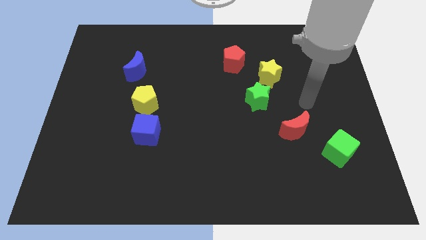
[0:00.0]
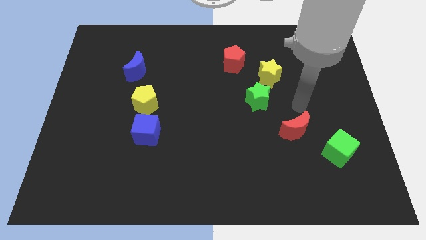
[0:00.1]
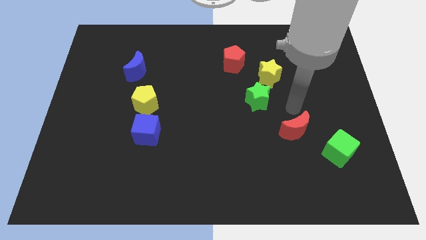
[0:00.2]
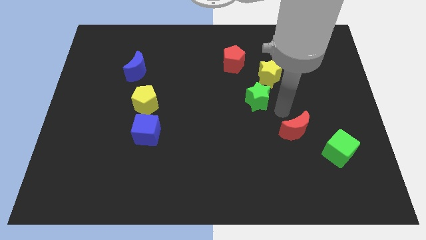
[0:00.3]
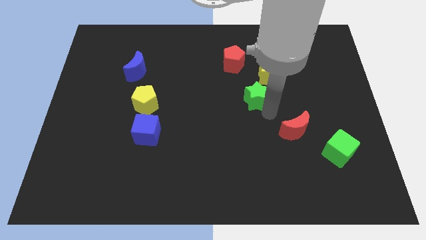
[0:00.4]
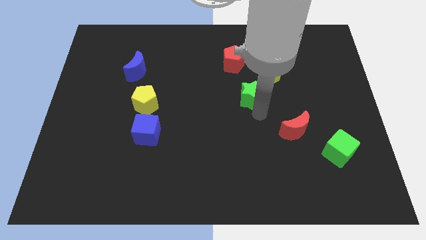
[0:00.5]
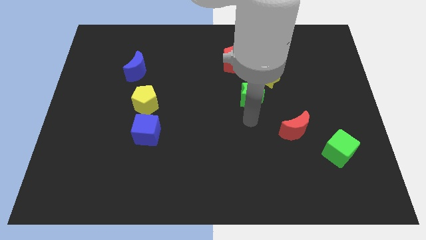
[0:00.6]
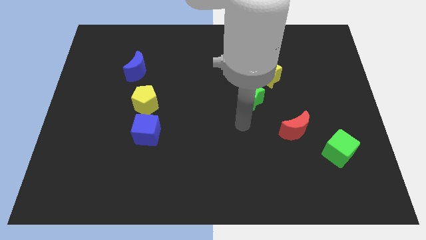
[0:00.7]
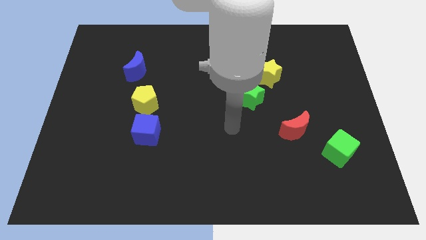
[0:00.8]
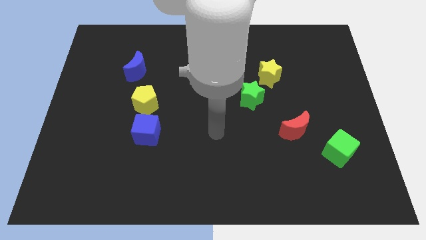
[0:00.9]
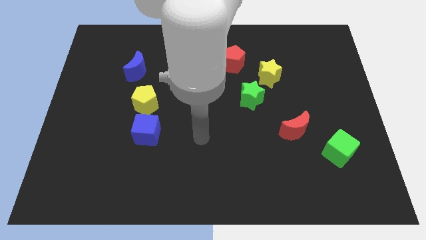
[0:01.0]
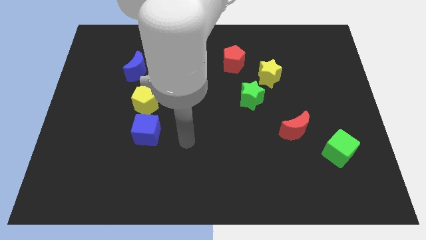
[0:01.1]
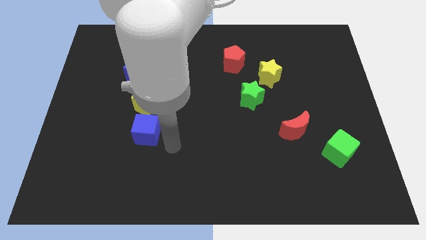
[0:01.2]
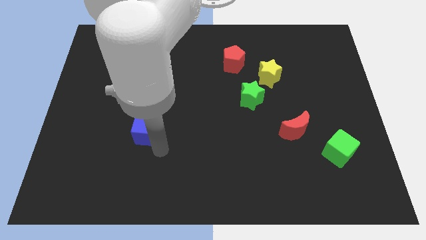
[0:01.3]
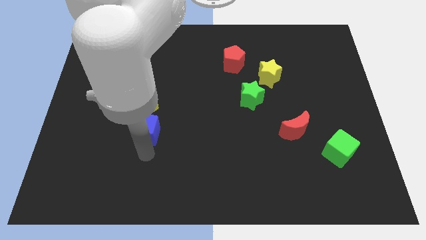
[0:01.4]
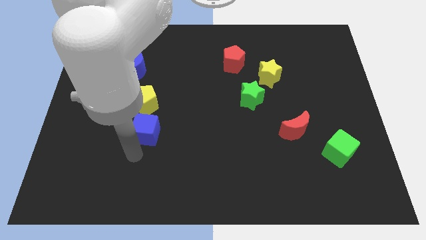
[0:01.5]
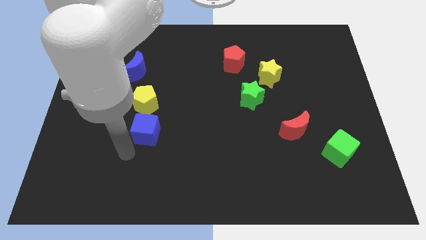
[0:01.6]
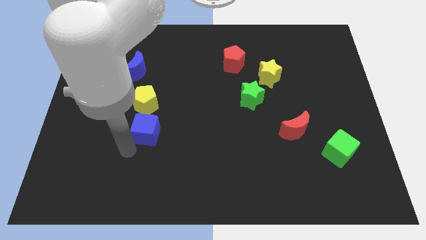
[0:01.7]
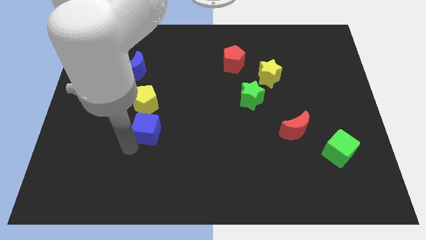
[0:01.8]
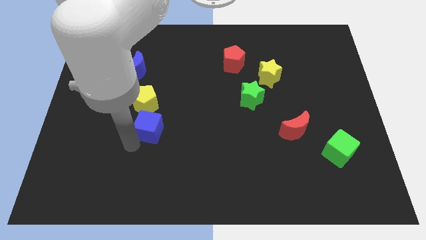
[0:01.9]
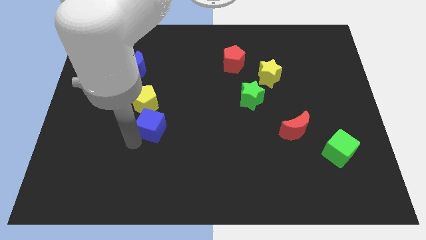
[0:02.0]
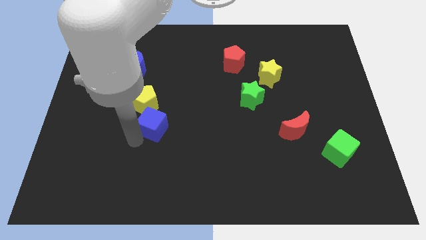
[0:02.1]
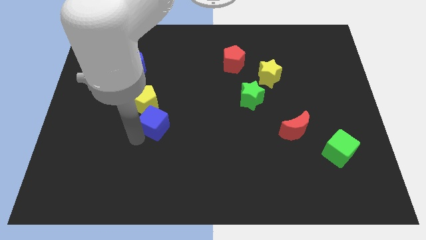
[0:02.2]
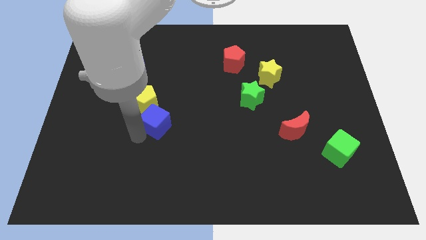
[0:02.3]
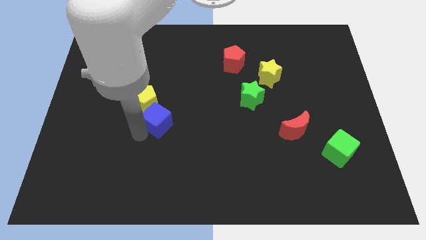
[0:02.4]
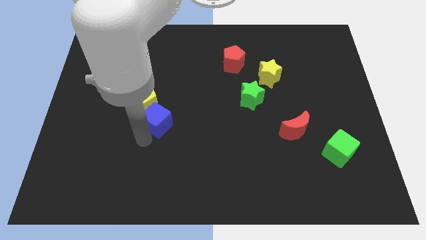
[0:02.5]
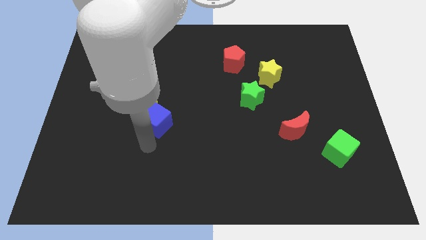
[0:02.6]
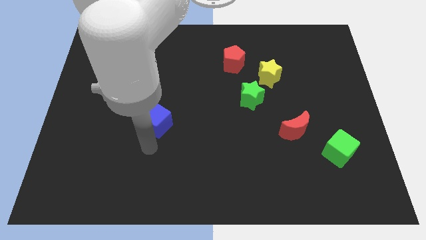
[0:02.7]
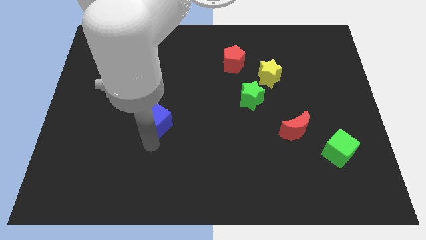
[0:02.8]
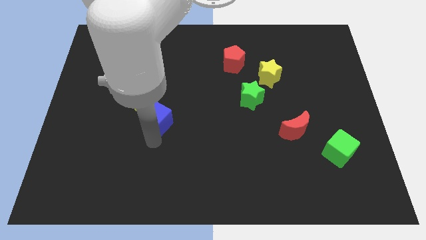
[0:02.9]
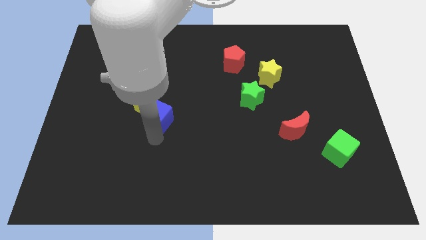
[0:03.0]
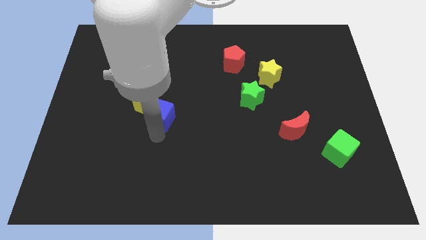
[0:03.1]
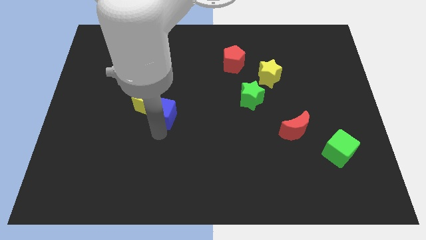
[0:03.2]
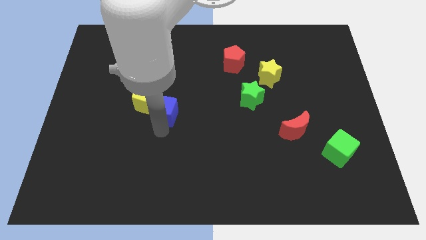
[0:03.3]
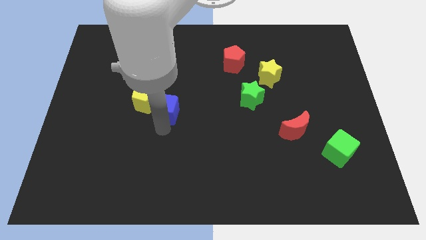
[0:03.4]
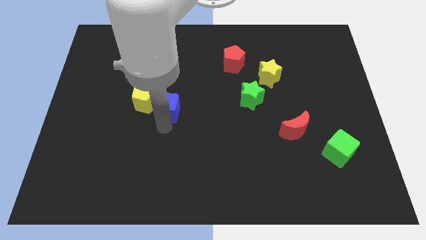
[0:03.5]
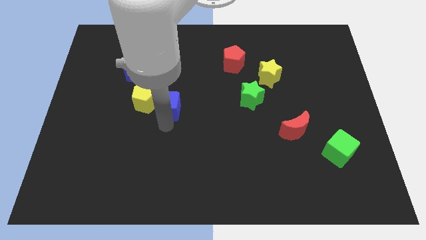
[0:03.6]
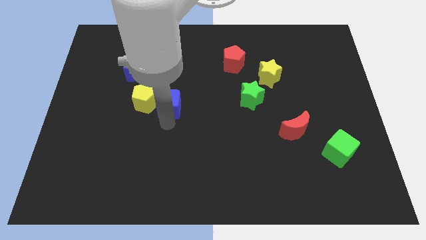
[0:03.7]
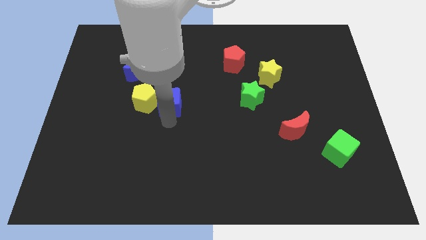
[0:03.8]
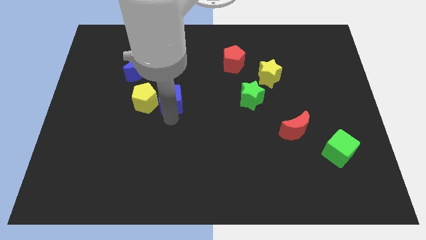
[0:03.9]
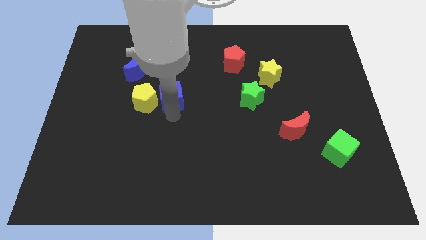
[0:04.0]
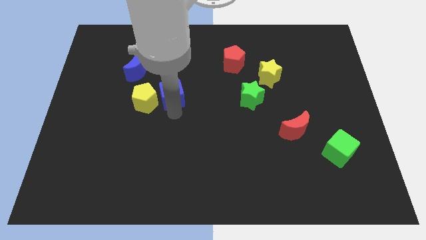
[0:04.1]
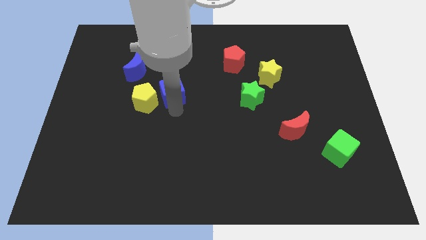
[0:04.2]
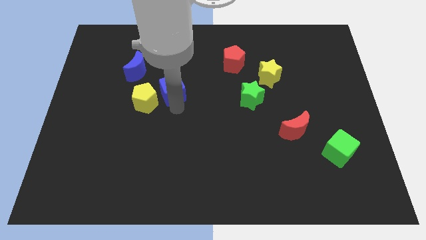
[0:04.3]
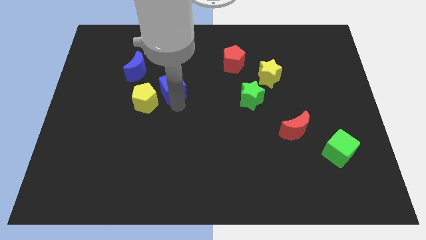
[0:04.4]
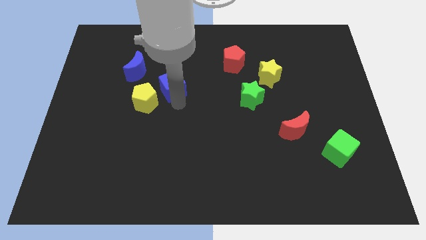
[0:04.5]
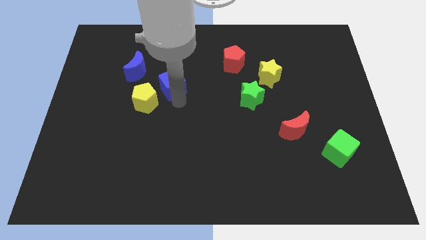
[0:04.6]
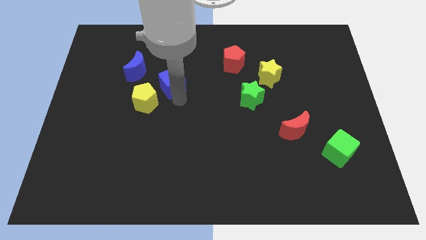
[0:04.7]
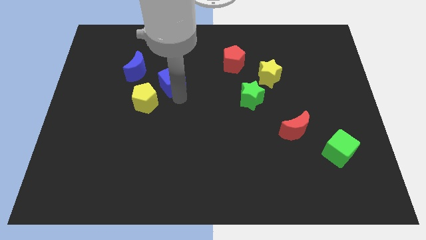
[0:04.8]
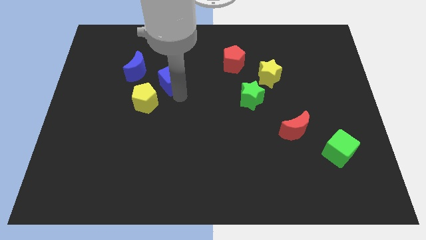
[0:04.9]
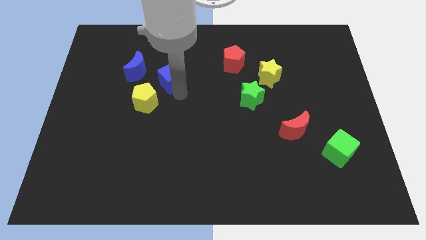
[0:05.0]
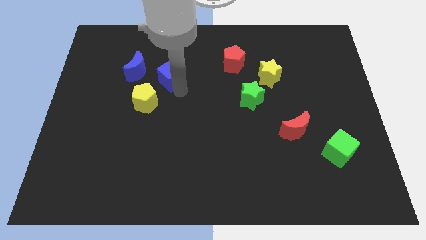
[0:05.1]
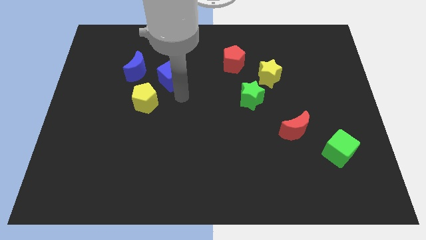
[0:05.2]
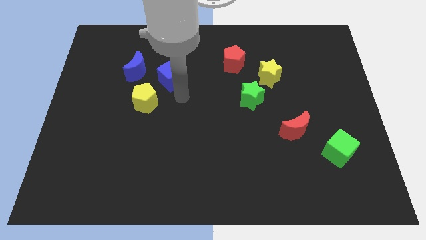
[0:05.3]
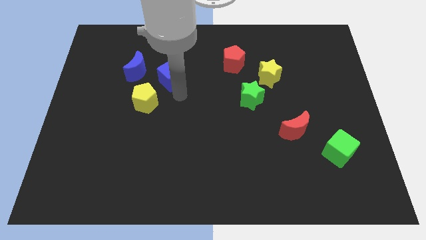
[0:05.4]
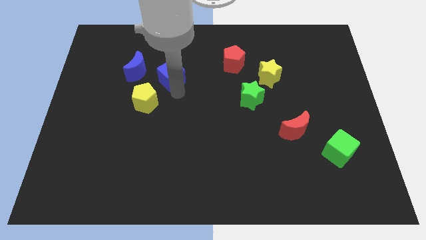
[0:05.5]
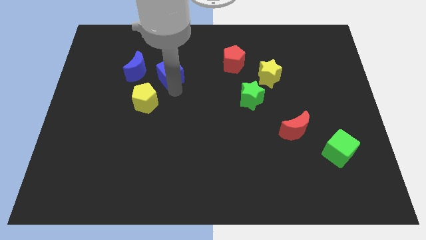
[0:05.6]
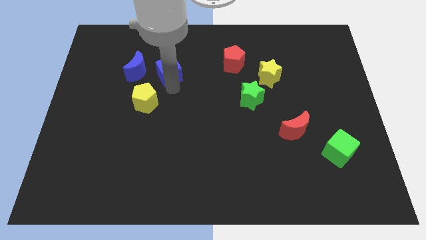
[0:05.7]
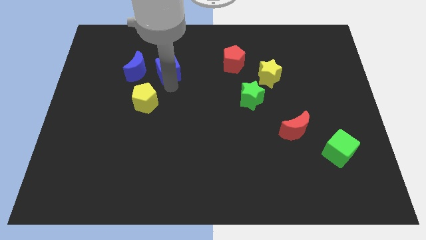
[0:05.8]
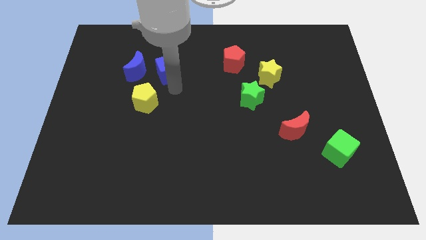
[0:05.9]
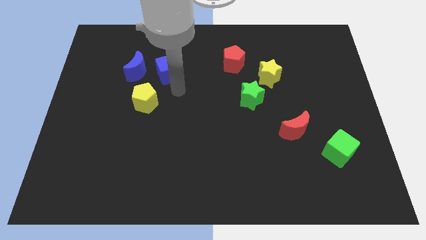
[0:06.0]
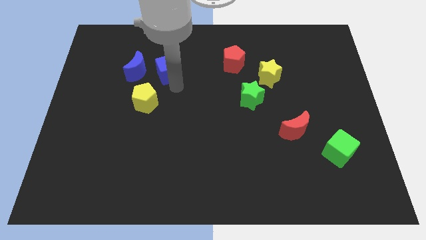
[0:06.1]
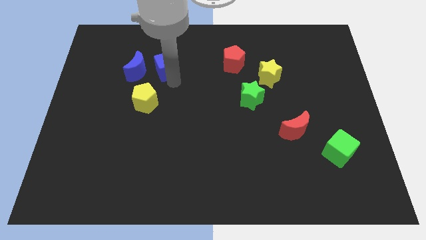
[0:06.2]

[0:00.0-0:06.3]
push the blue cube to the top right side of the blue moon

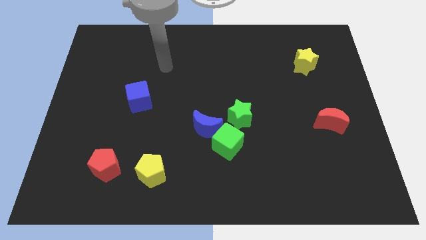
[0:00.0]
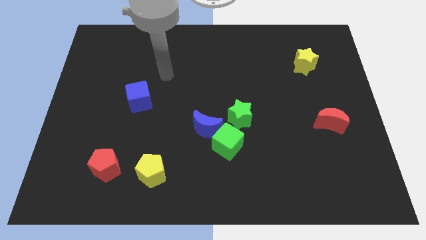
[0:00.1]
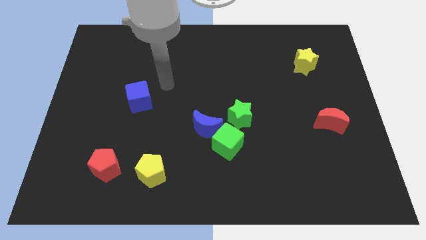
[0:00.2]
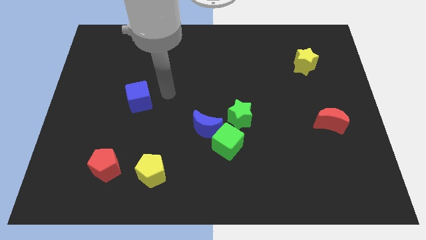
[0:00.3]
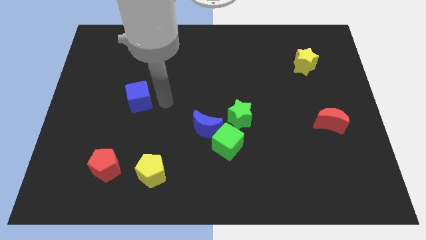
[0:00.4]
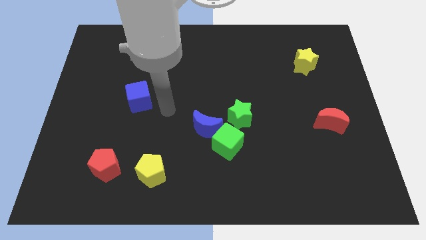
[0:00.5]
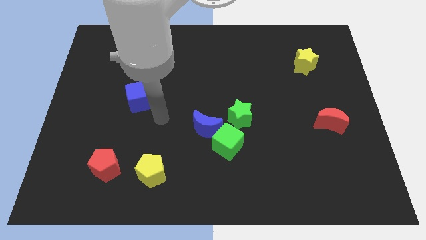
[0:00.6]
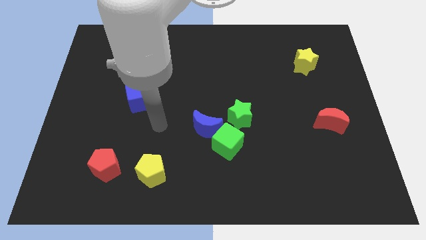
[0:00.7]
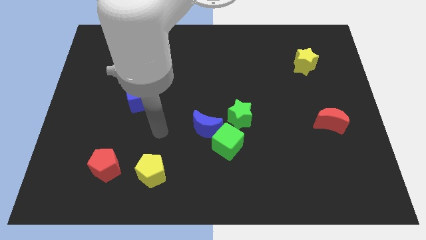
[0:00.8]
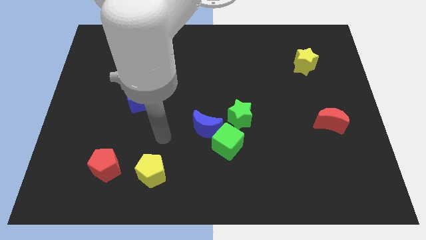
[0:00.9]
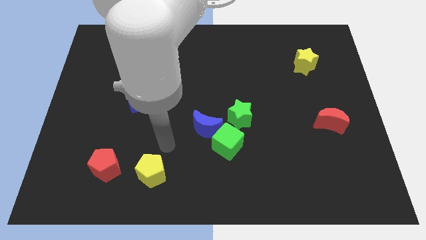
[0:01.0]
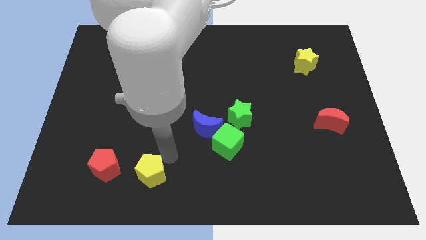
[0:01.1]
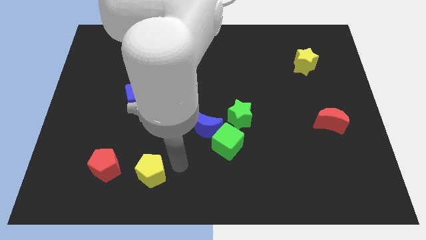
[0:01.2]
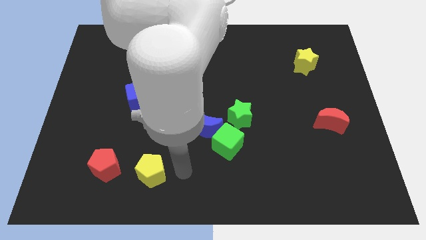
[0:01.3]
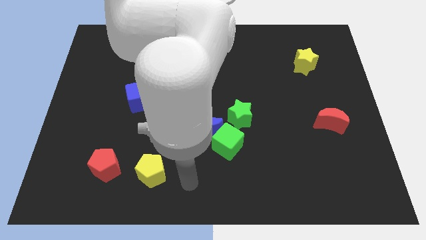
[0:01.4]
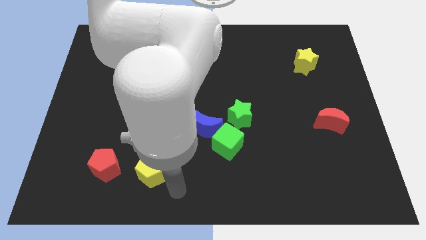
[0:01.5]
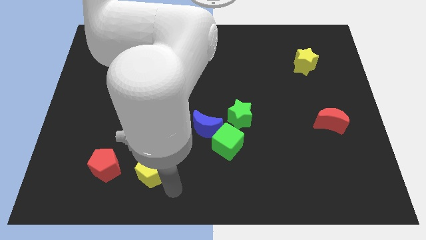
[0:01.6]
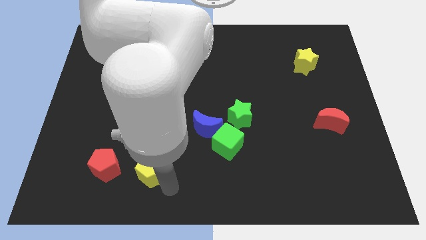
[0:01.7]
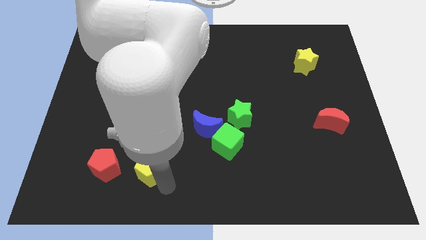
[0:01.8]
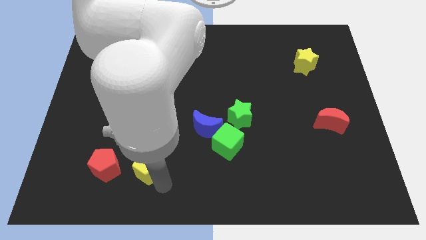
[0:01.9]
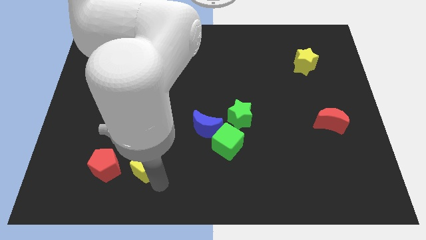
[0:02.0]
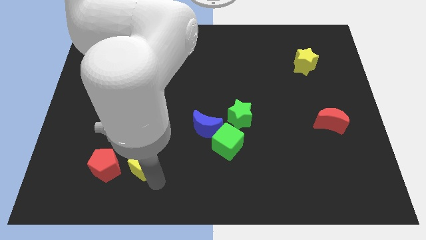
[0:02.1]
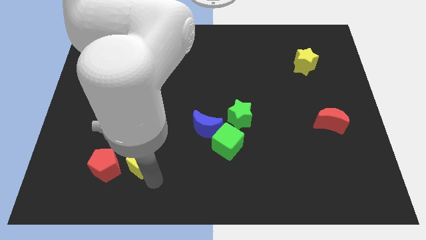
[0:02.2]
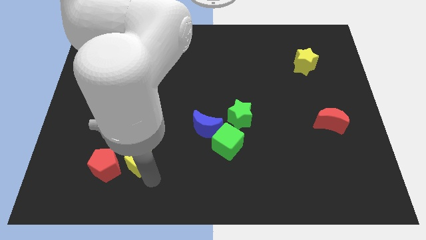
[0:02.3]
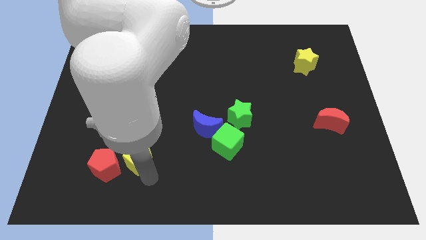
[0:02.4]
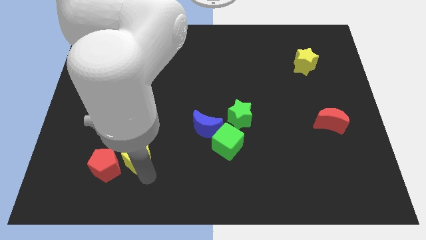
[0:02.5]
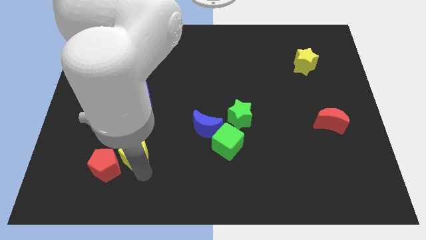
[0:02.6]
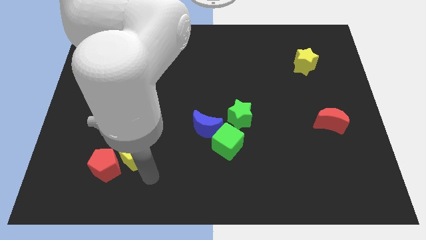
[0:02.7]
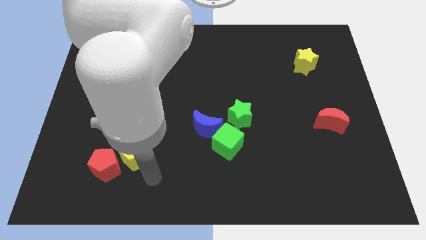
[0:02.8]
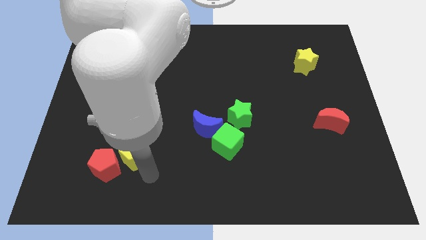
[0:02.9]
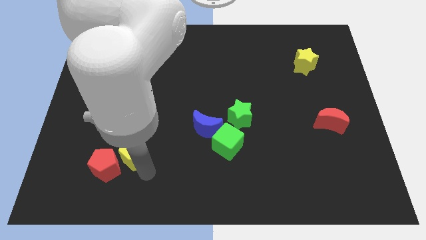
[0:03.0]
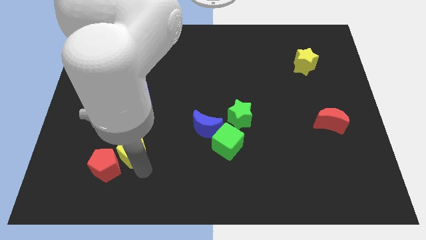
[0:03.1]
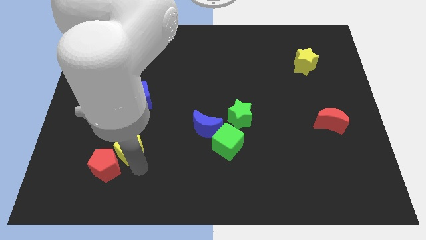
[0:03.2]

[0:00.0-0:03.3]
move the yellow pentagon to the top side of the red pentagon
